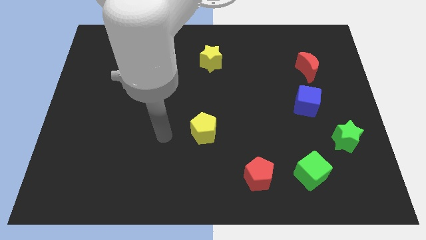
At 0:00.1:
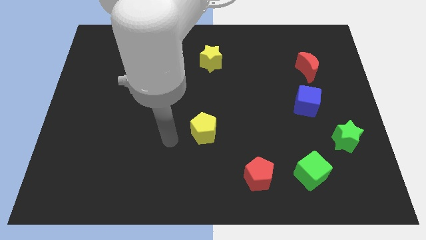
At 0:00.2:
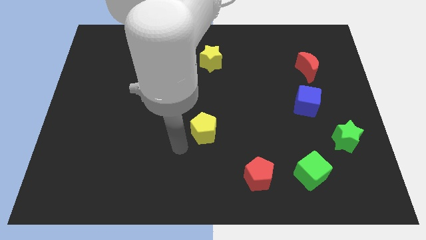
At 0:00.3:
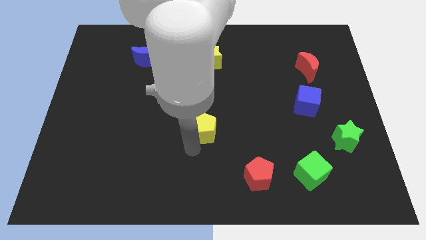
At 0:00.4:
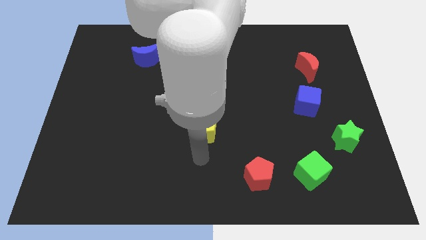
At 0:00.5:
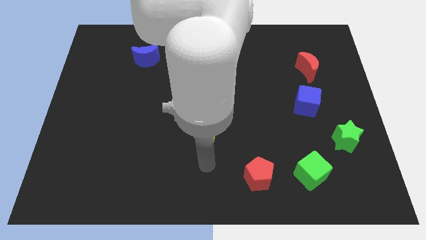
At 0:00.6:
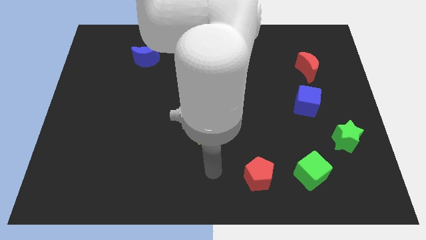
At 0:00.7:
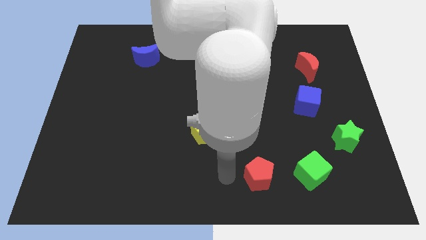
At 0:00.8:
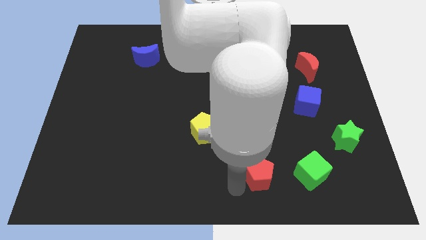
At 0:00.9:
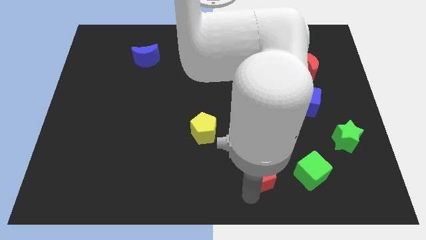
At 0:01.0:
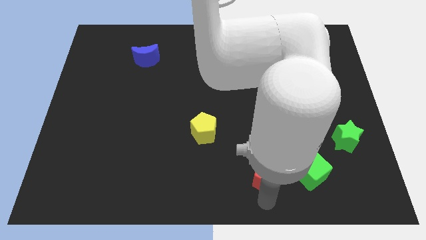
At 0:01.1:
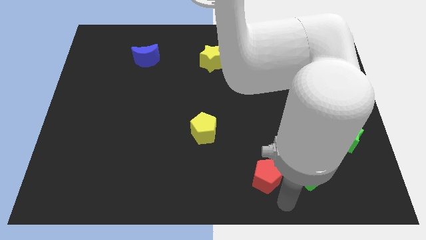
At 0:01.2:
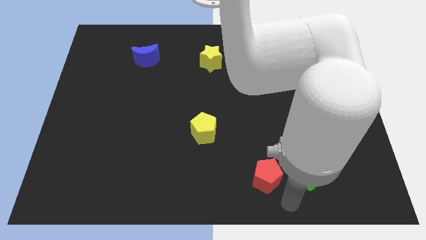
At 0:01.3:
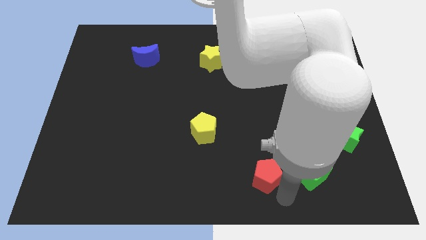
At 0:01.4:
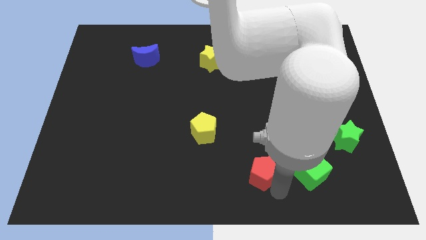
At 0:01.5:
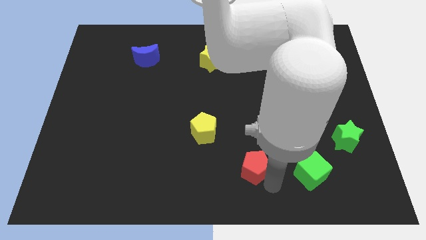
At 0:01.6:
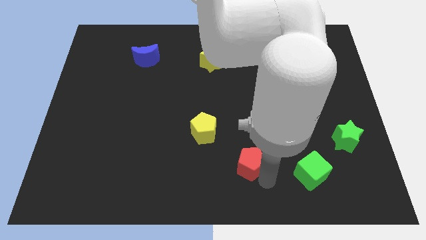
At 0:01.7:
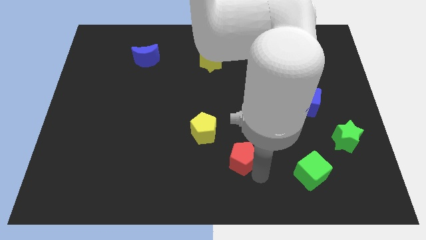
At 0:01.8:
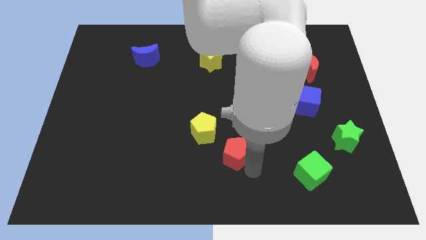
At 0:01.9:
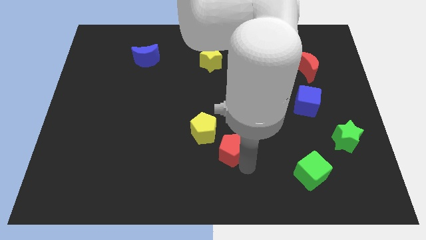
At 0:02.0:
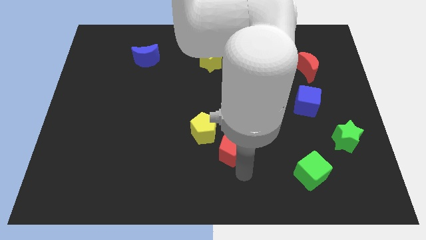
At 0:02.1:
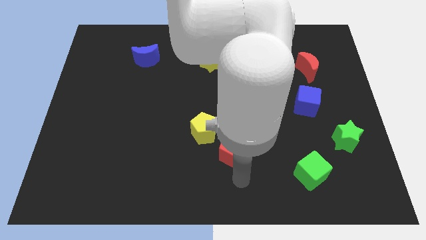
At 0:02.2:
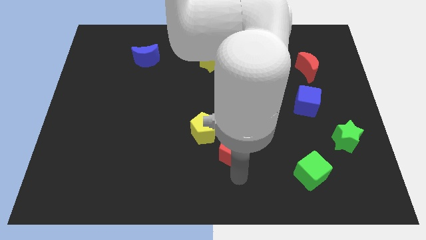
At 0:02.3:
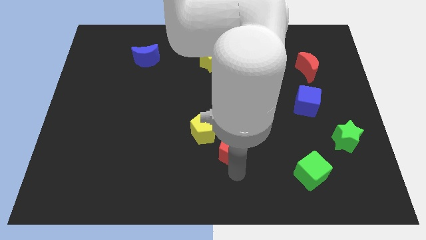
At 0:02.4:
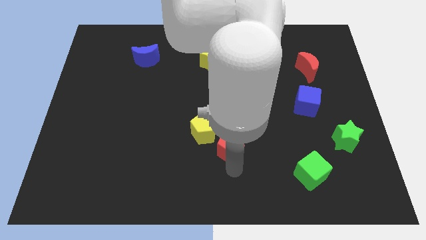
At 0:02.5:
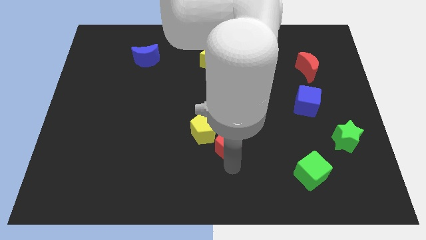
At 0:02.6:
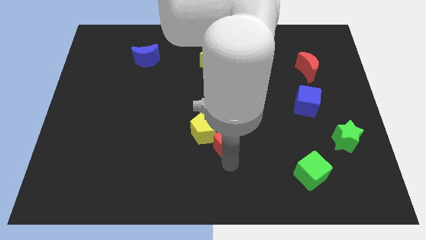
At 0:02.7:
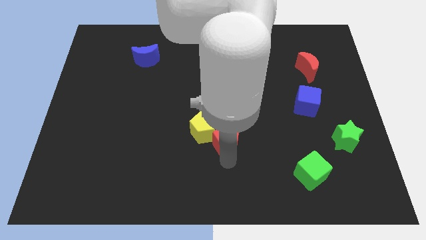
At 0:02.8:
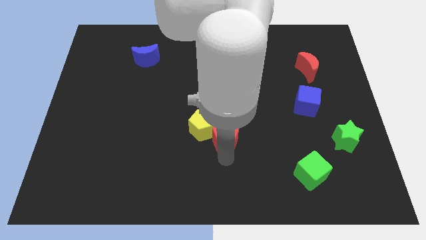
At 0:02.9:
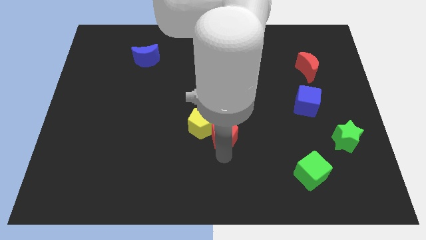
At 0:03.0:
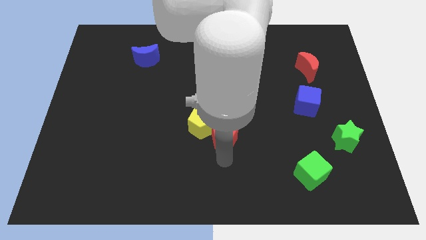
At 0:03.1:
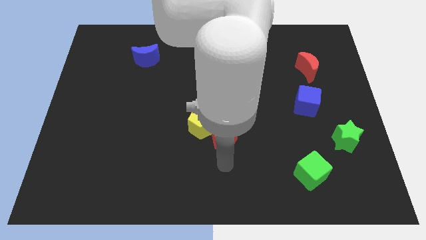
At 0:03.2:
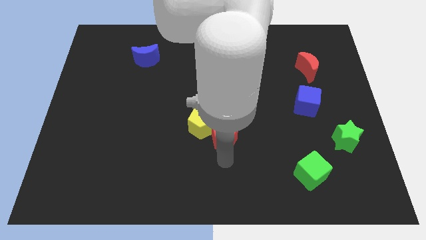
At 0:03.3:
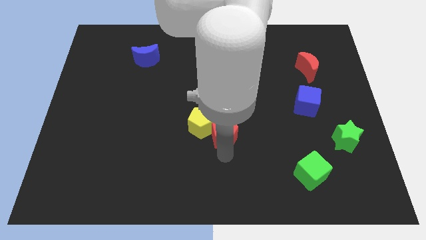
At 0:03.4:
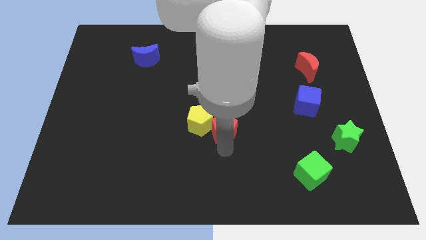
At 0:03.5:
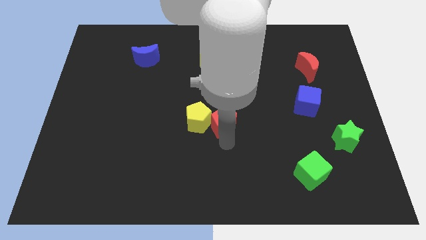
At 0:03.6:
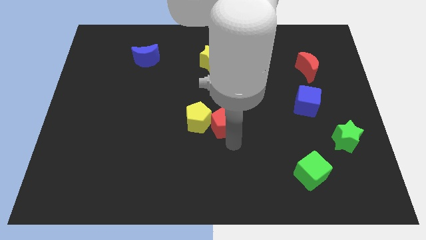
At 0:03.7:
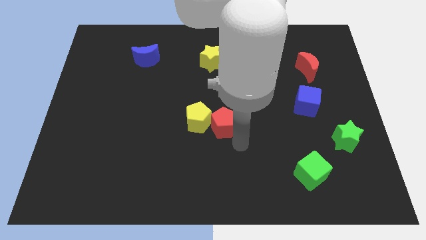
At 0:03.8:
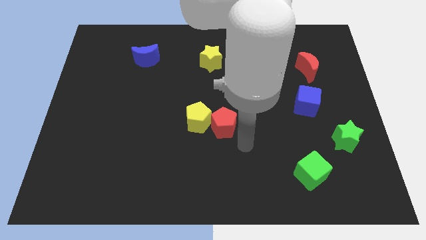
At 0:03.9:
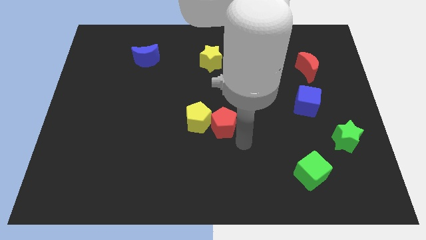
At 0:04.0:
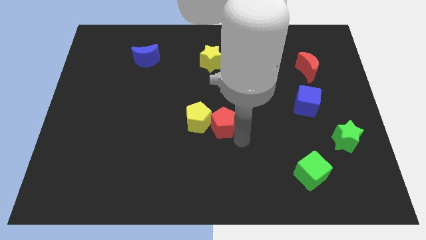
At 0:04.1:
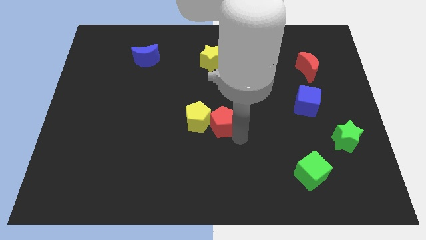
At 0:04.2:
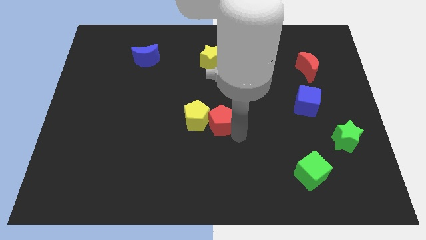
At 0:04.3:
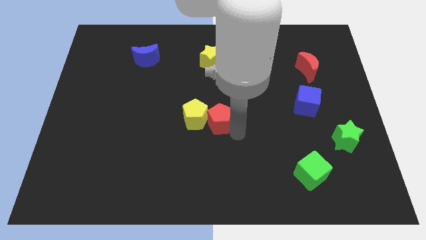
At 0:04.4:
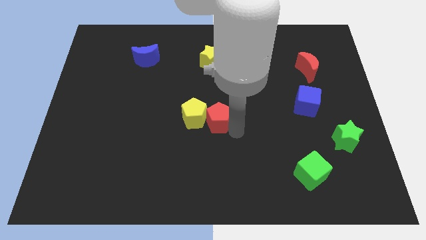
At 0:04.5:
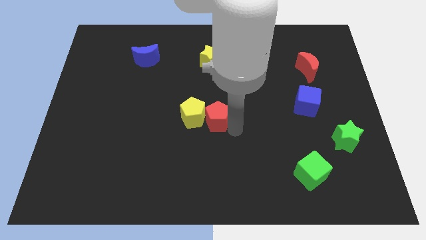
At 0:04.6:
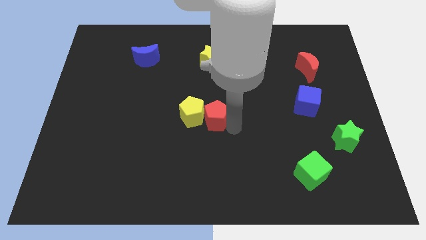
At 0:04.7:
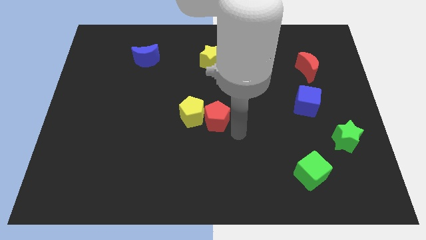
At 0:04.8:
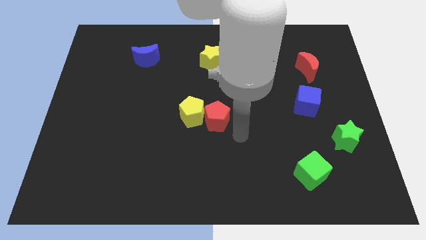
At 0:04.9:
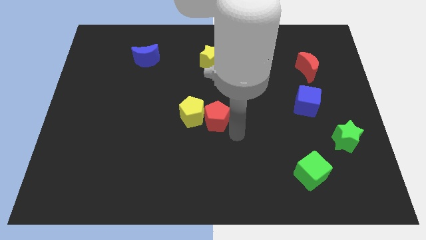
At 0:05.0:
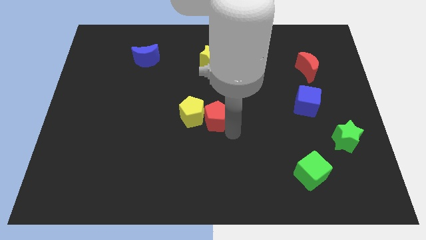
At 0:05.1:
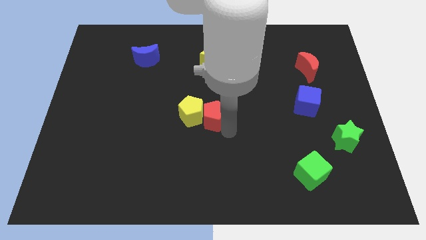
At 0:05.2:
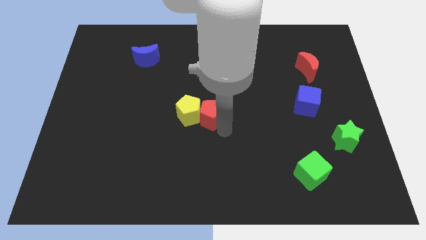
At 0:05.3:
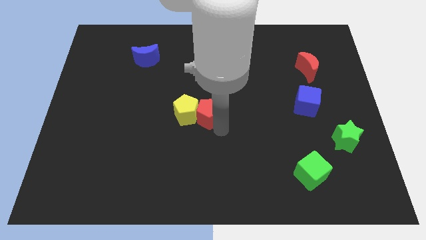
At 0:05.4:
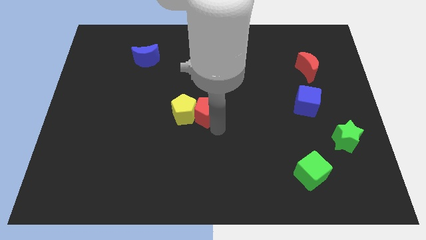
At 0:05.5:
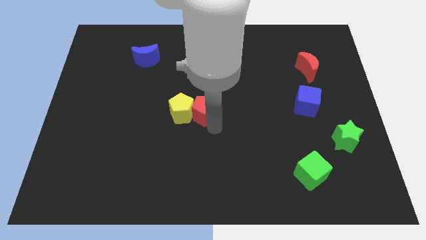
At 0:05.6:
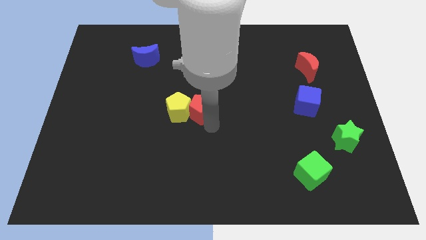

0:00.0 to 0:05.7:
move the red pentagon upwards and to the left diagonally

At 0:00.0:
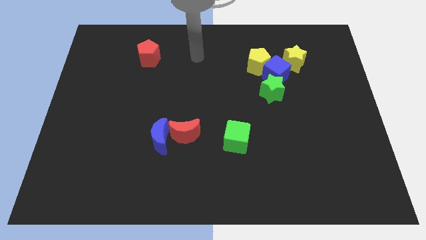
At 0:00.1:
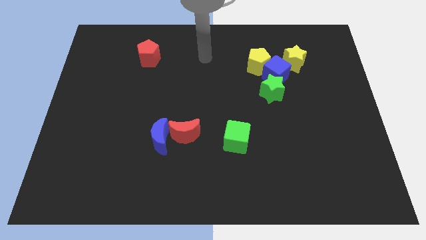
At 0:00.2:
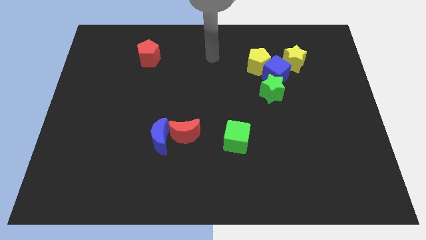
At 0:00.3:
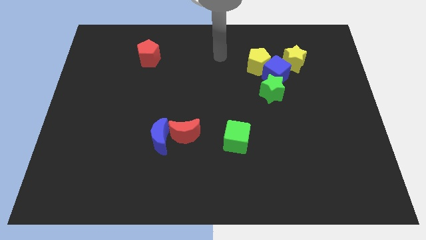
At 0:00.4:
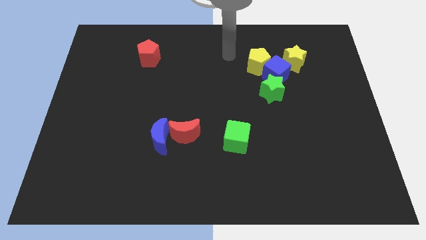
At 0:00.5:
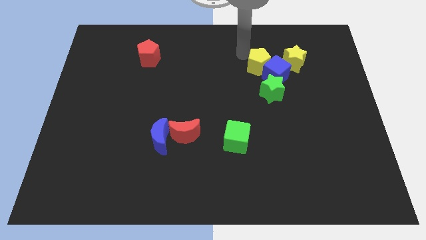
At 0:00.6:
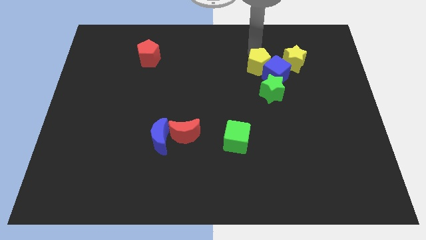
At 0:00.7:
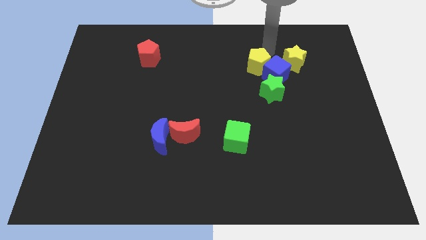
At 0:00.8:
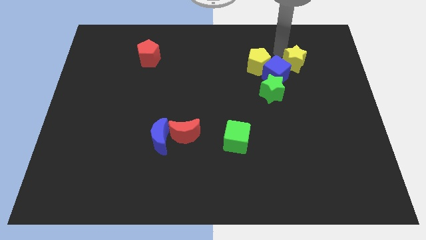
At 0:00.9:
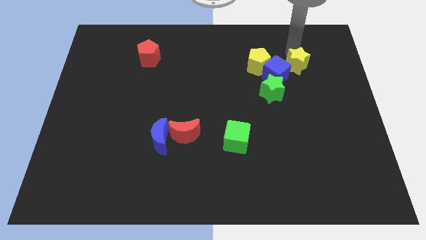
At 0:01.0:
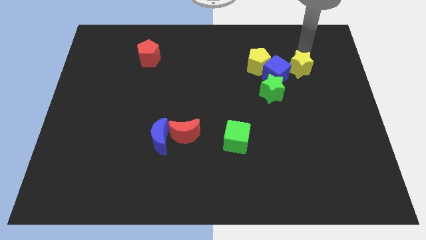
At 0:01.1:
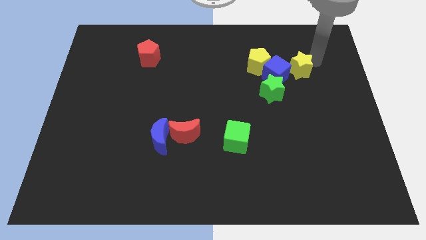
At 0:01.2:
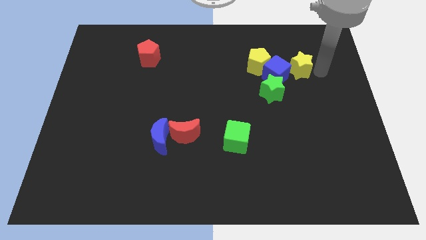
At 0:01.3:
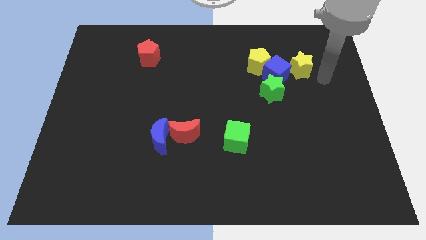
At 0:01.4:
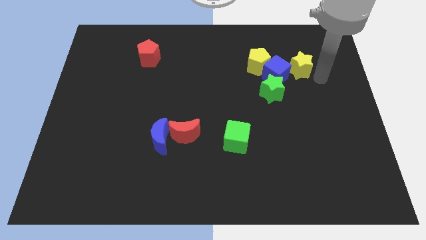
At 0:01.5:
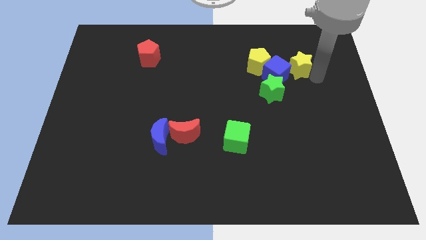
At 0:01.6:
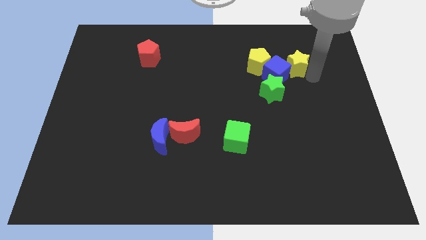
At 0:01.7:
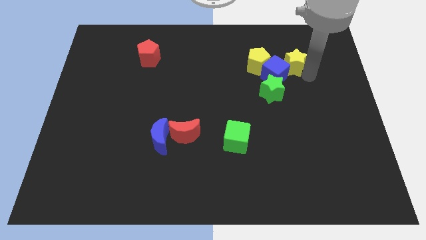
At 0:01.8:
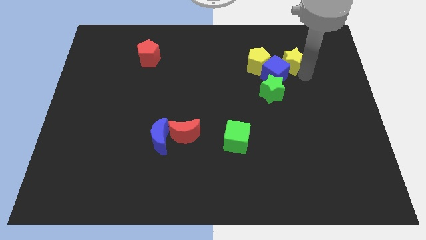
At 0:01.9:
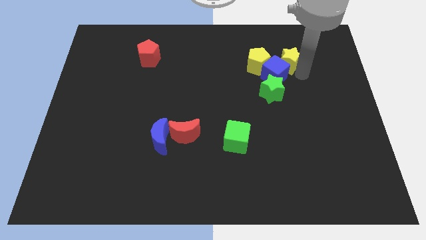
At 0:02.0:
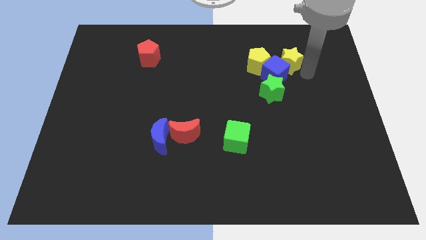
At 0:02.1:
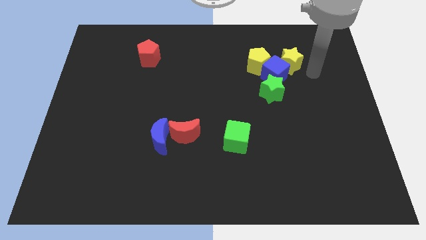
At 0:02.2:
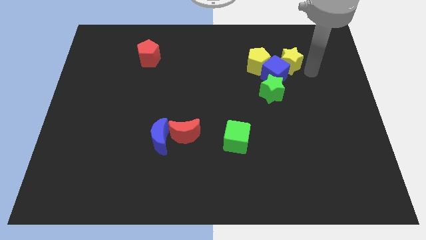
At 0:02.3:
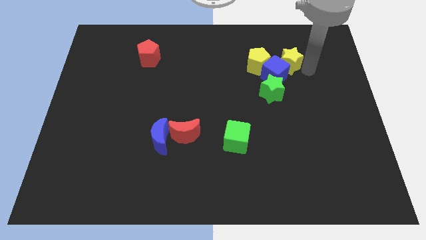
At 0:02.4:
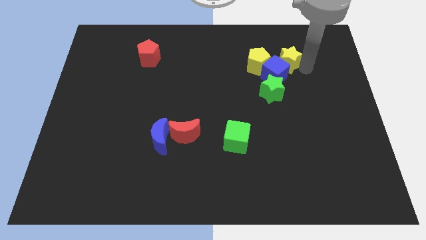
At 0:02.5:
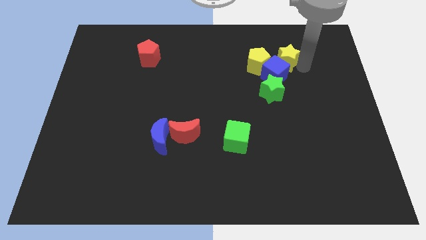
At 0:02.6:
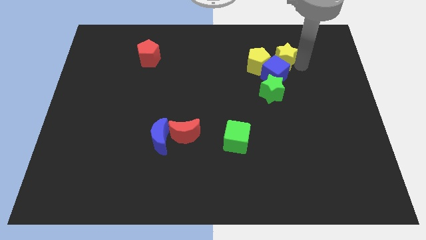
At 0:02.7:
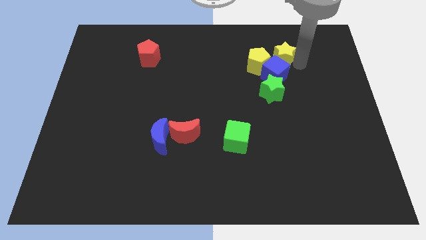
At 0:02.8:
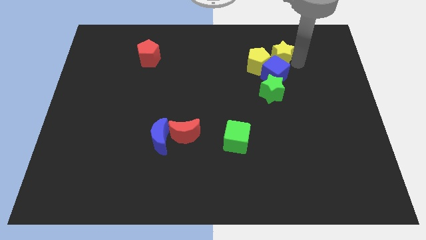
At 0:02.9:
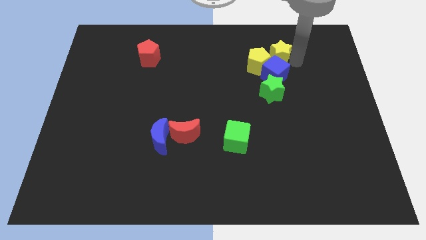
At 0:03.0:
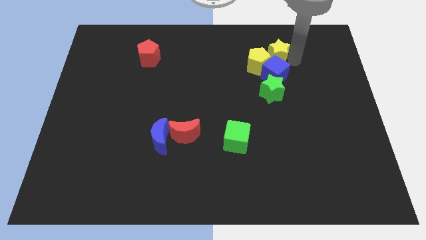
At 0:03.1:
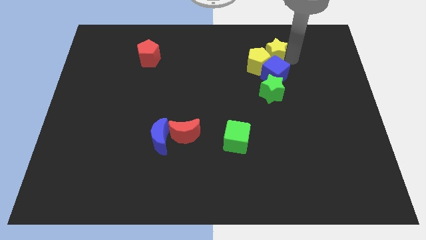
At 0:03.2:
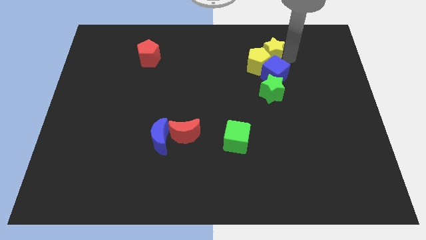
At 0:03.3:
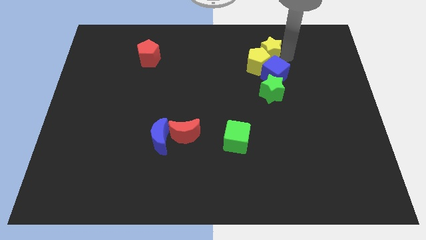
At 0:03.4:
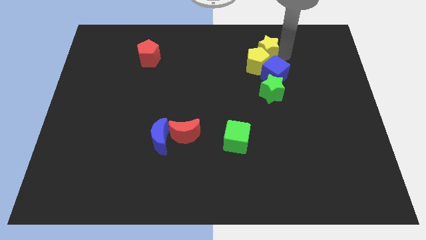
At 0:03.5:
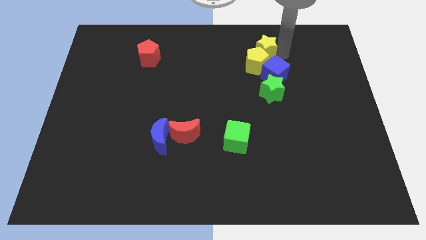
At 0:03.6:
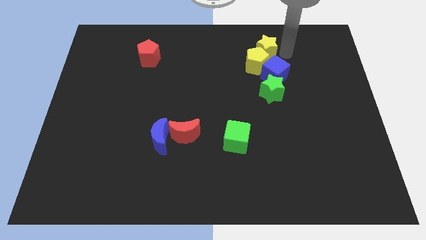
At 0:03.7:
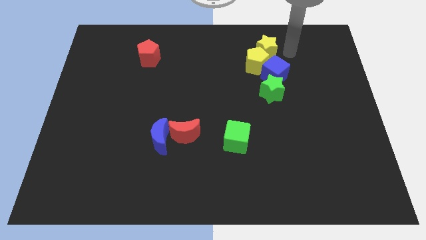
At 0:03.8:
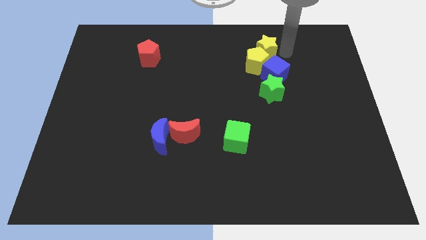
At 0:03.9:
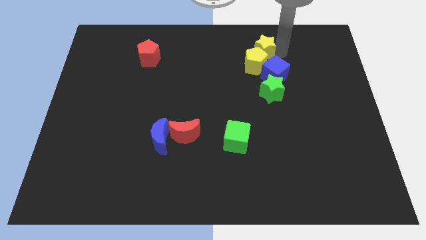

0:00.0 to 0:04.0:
move the yellow star left a bit
